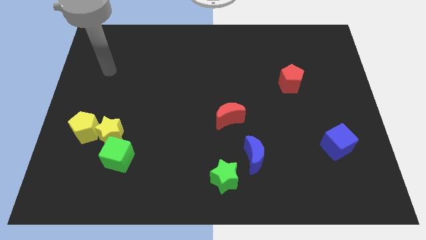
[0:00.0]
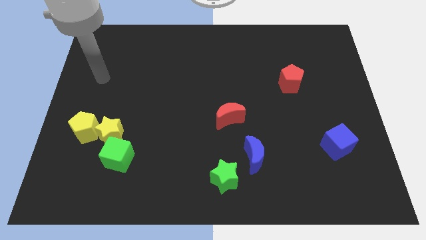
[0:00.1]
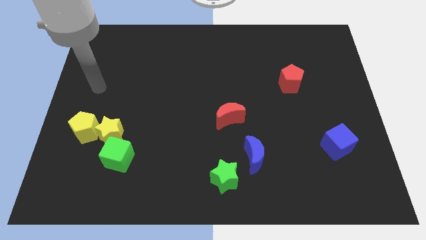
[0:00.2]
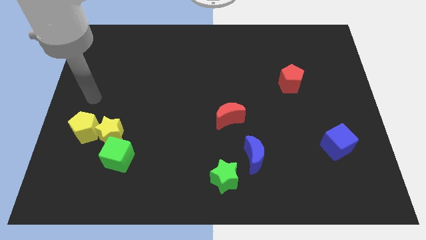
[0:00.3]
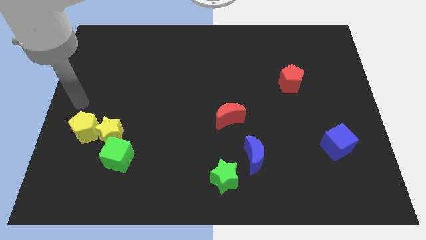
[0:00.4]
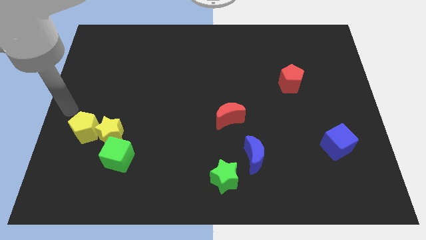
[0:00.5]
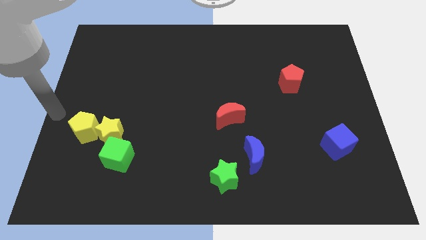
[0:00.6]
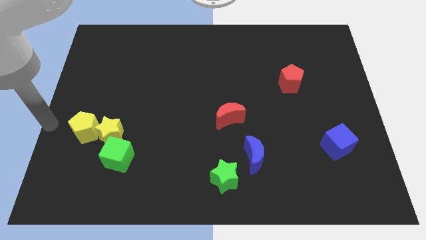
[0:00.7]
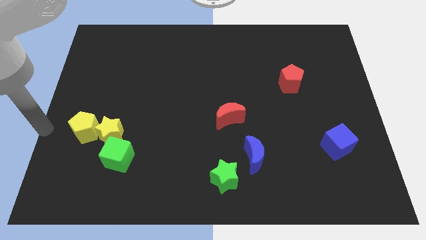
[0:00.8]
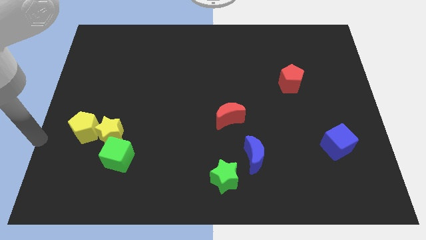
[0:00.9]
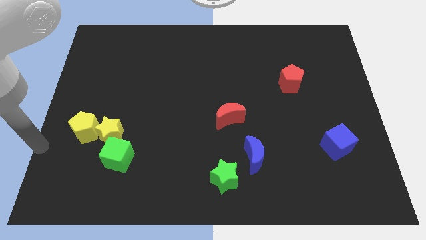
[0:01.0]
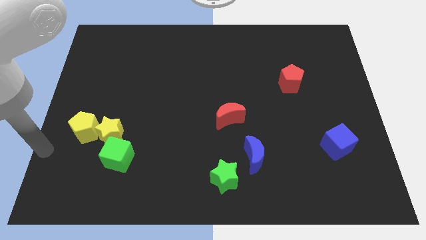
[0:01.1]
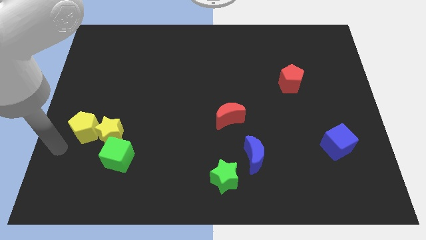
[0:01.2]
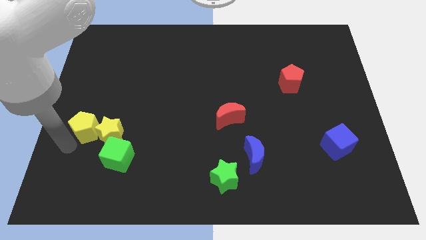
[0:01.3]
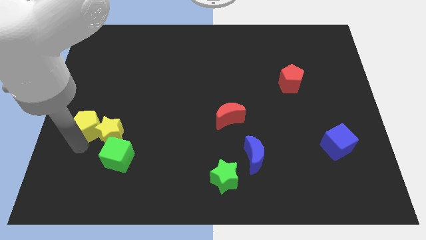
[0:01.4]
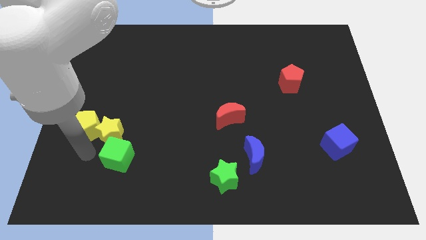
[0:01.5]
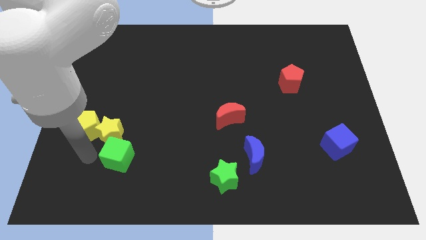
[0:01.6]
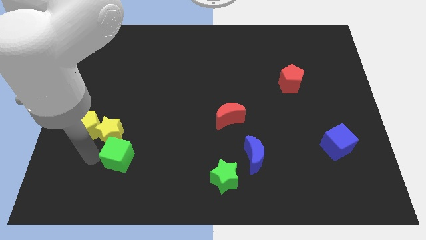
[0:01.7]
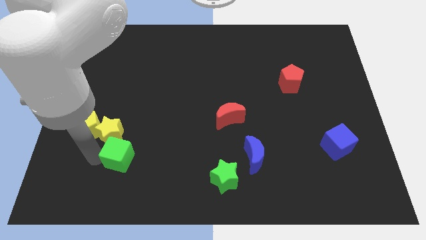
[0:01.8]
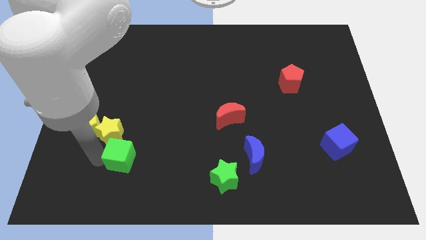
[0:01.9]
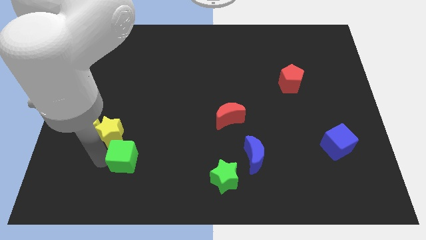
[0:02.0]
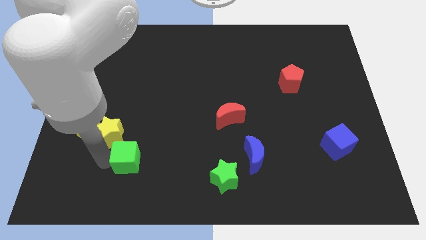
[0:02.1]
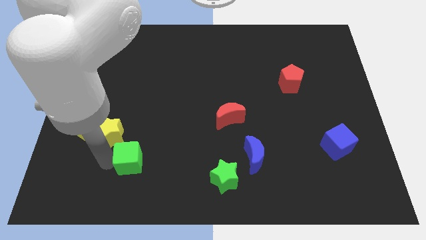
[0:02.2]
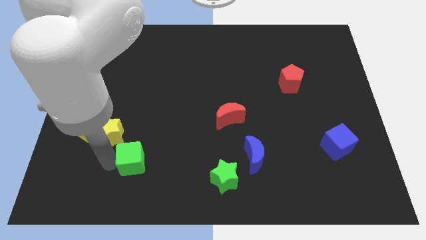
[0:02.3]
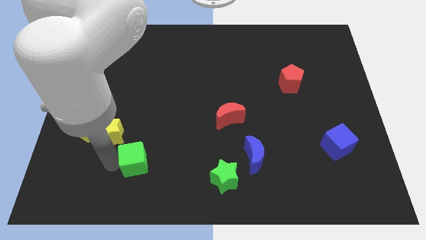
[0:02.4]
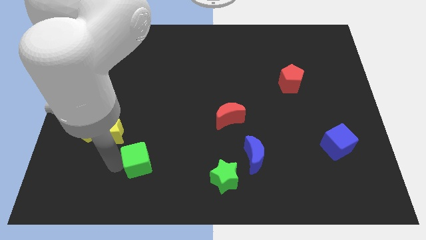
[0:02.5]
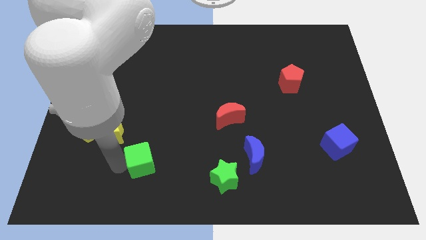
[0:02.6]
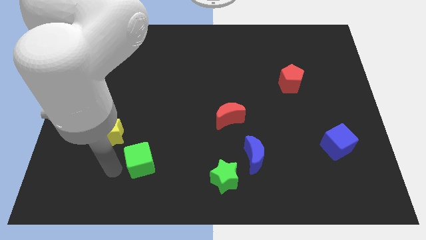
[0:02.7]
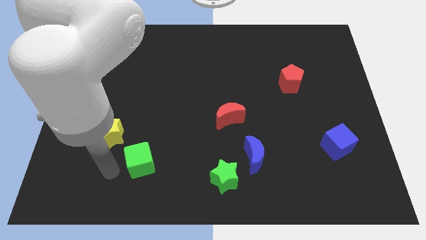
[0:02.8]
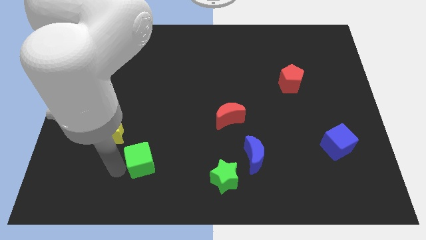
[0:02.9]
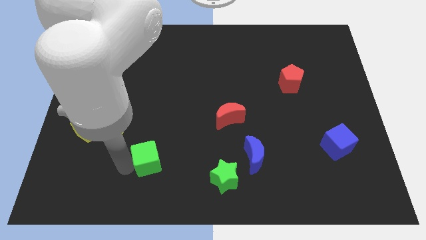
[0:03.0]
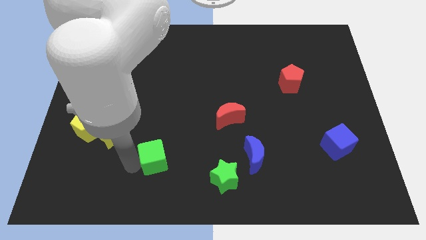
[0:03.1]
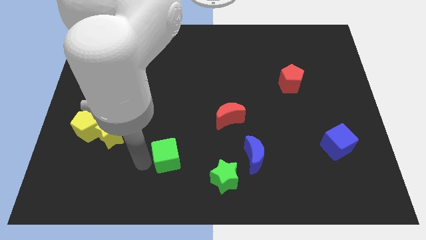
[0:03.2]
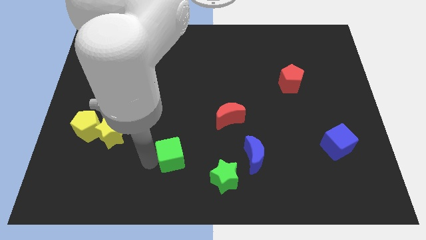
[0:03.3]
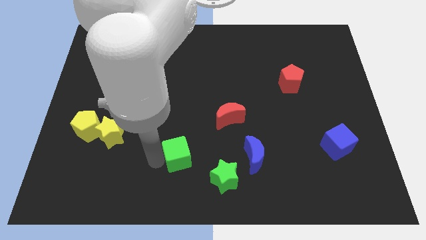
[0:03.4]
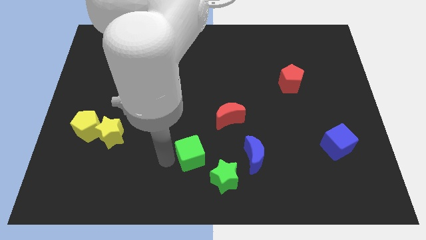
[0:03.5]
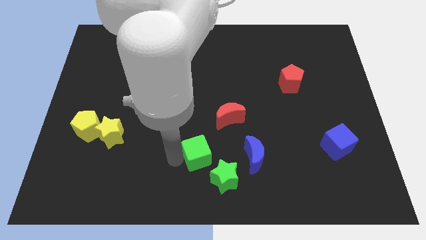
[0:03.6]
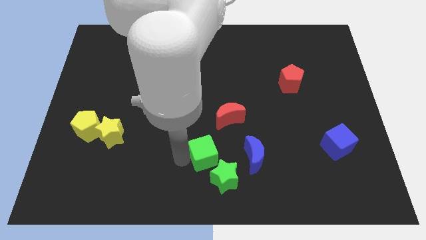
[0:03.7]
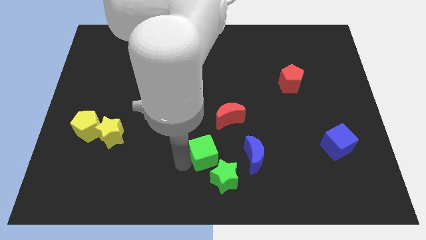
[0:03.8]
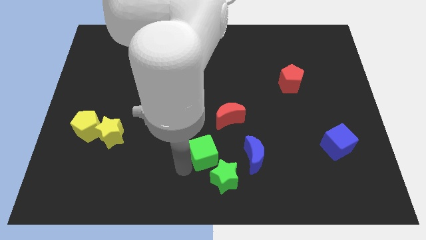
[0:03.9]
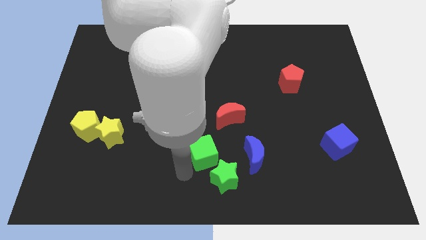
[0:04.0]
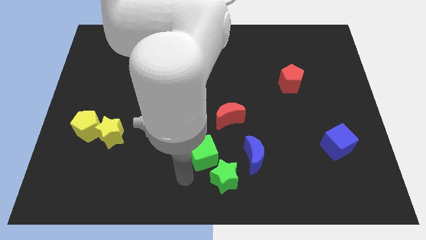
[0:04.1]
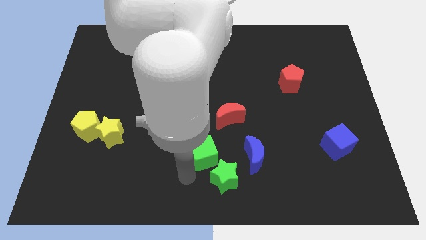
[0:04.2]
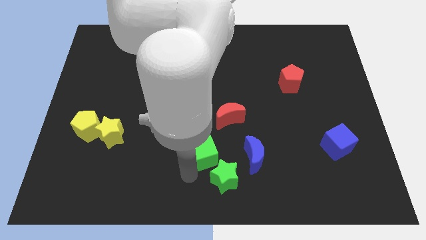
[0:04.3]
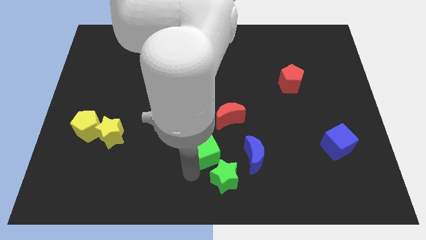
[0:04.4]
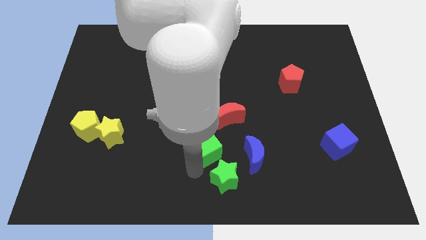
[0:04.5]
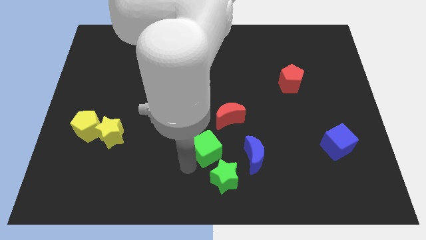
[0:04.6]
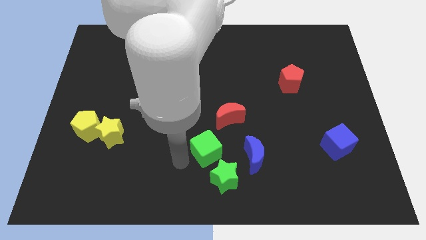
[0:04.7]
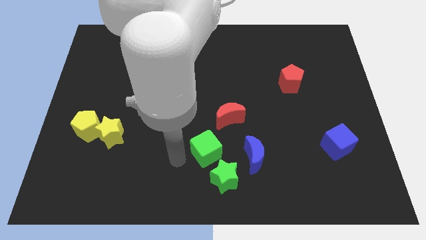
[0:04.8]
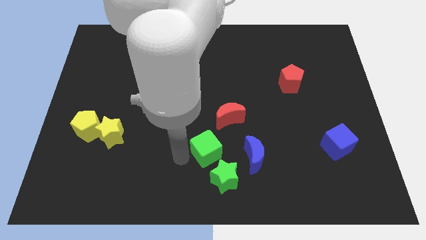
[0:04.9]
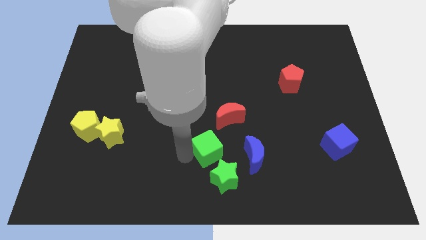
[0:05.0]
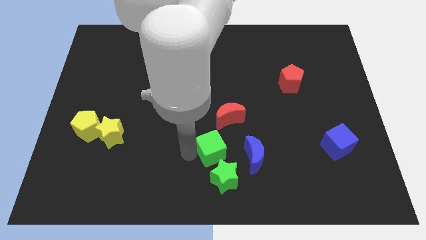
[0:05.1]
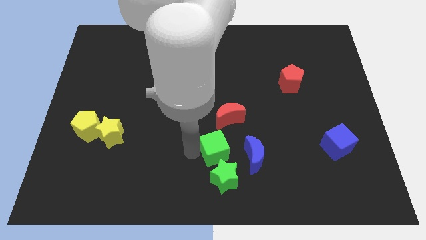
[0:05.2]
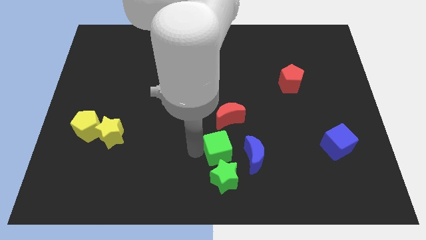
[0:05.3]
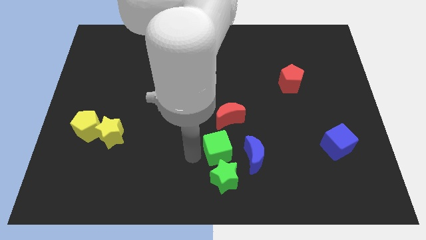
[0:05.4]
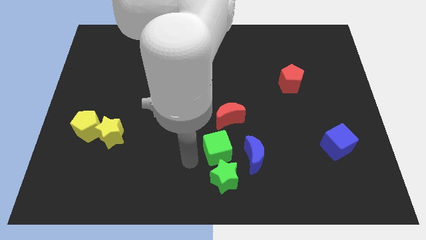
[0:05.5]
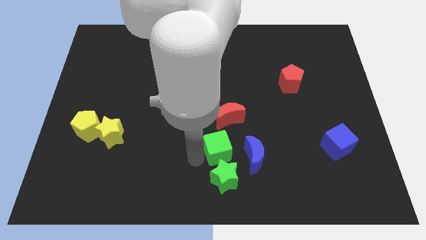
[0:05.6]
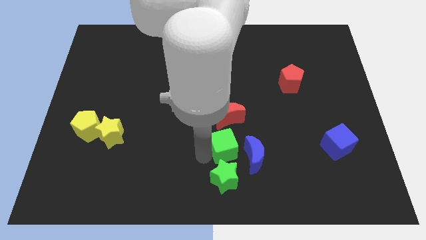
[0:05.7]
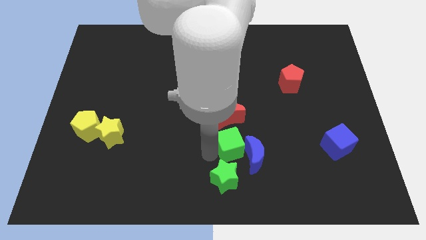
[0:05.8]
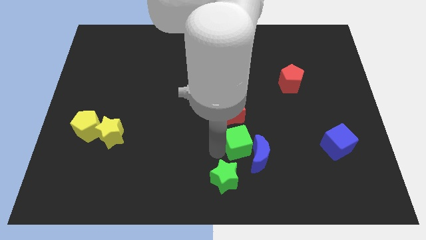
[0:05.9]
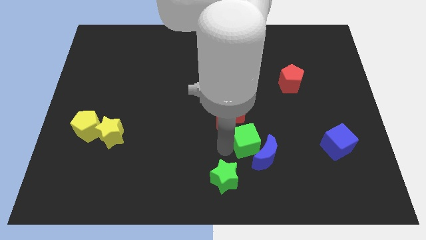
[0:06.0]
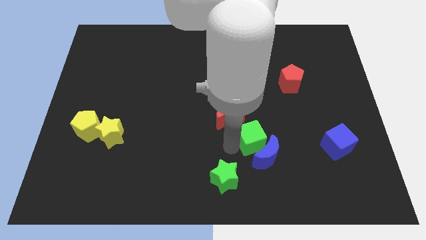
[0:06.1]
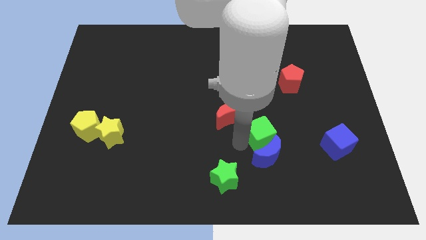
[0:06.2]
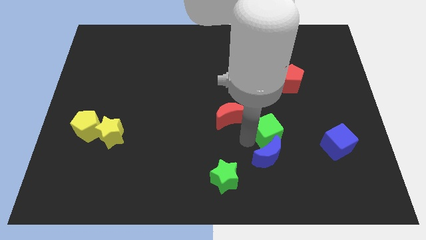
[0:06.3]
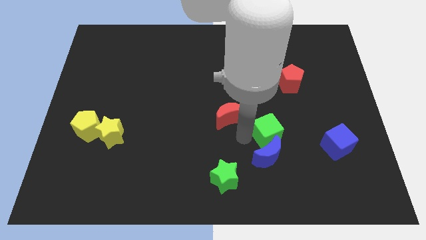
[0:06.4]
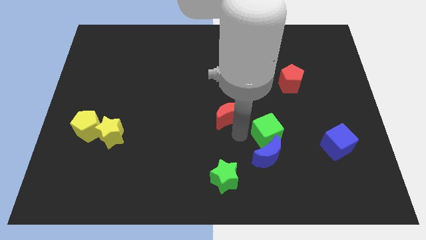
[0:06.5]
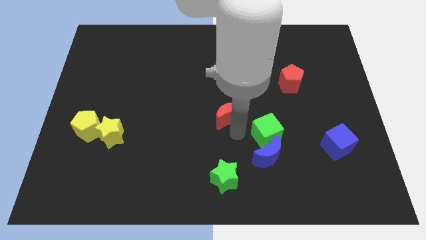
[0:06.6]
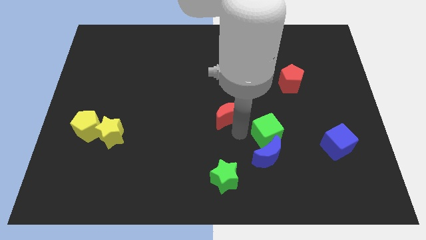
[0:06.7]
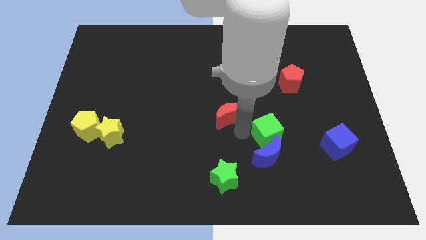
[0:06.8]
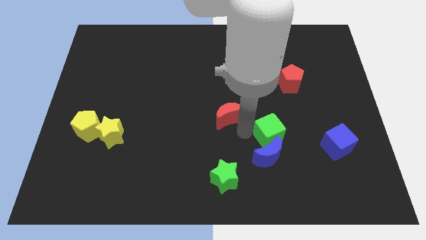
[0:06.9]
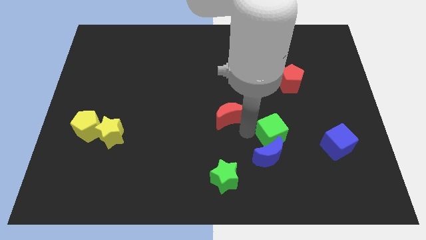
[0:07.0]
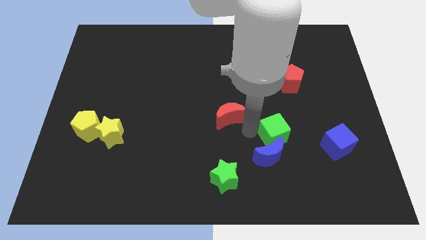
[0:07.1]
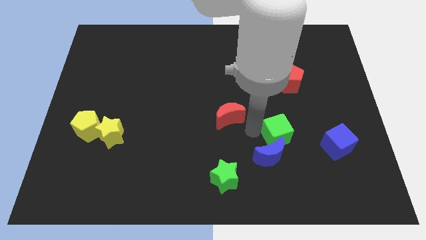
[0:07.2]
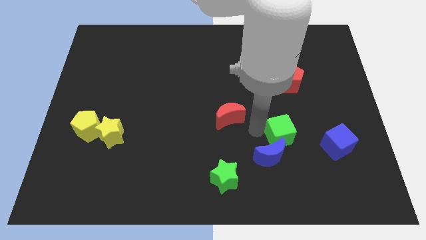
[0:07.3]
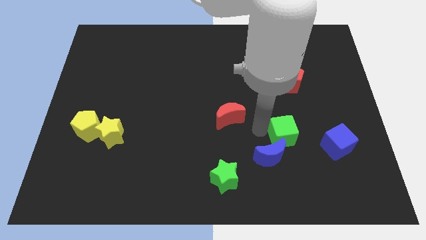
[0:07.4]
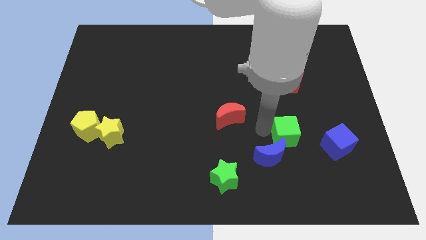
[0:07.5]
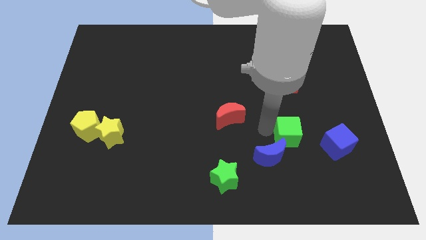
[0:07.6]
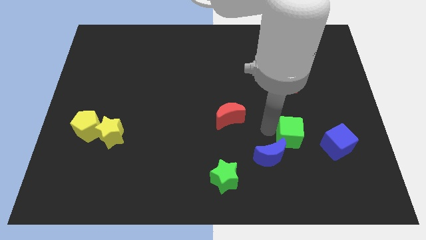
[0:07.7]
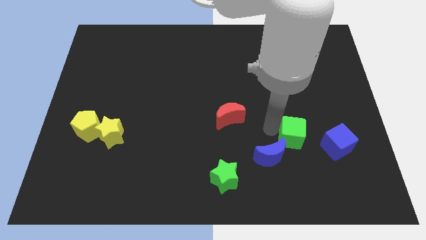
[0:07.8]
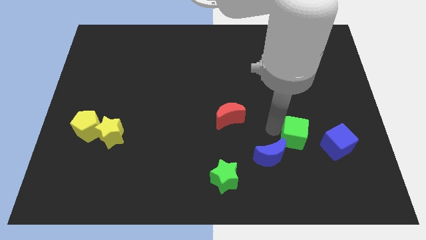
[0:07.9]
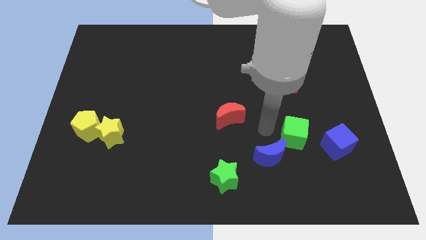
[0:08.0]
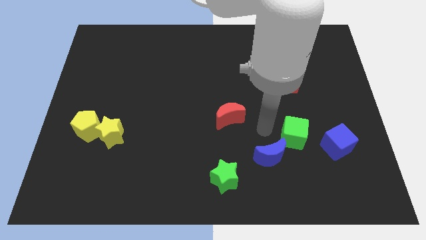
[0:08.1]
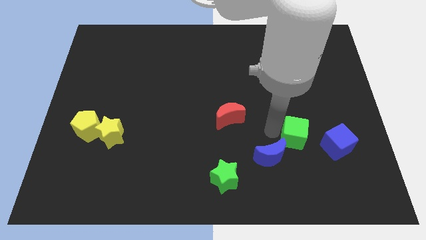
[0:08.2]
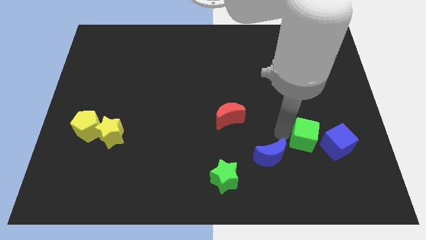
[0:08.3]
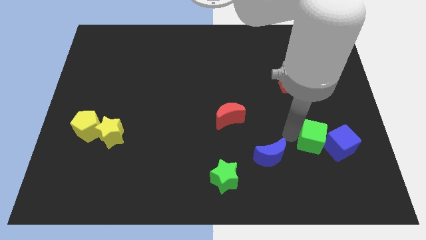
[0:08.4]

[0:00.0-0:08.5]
put the green cube towards the blue cube
